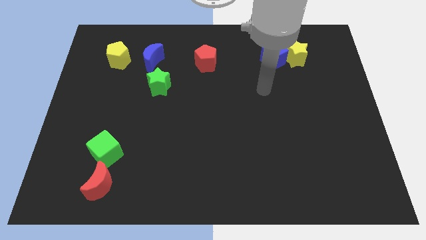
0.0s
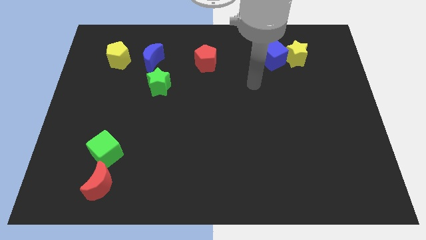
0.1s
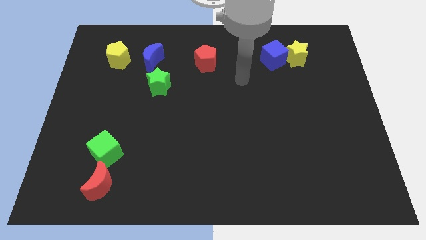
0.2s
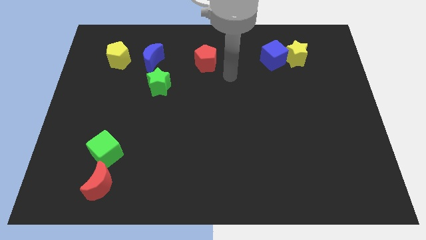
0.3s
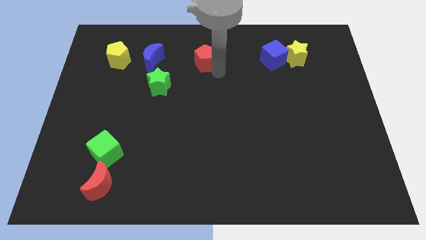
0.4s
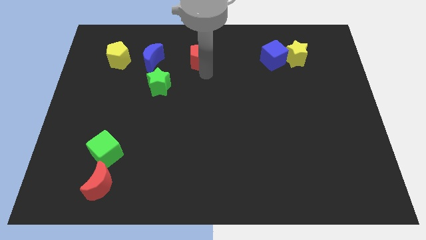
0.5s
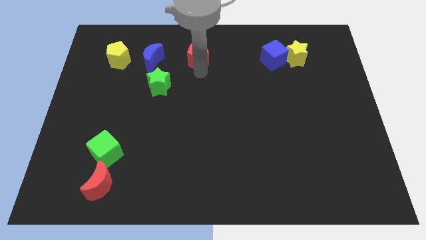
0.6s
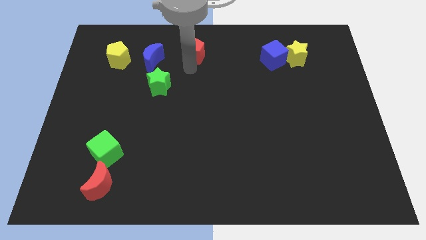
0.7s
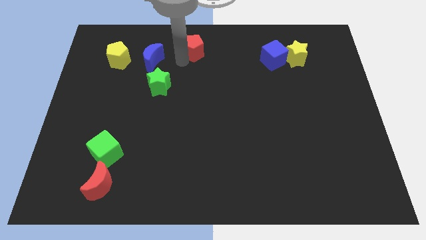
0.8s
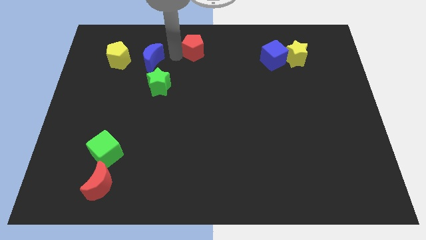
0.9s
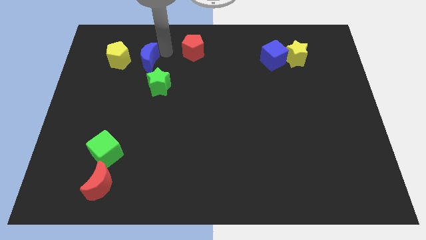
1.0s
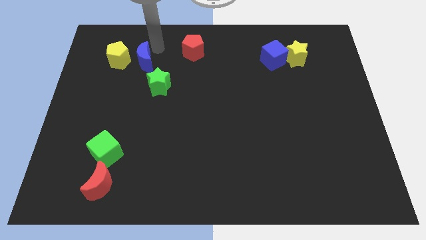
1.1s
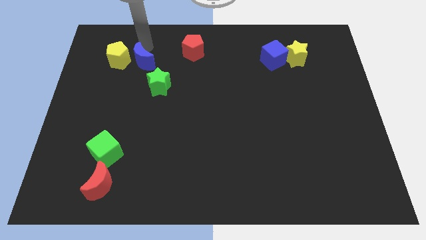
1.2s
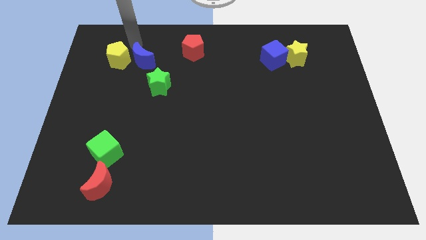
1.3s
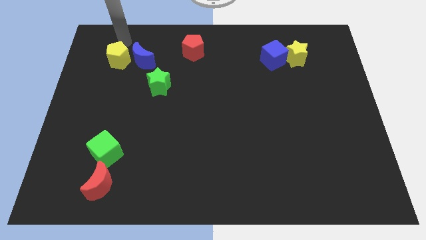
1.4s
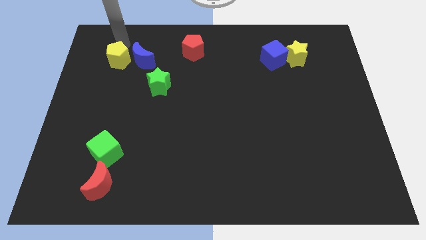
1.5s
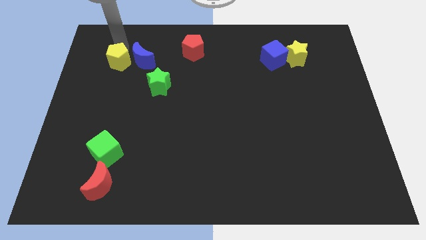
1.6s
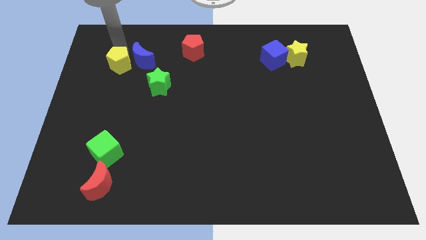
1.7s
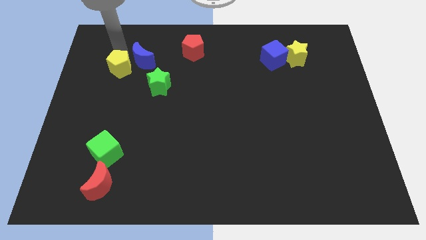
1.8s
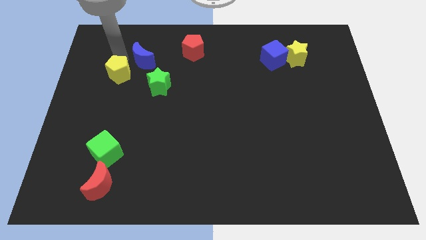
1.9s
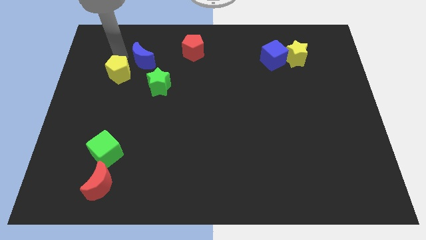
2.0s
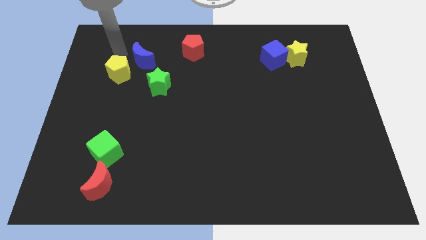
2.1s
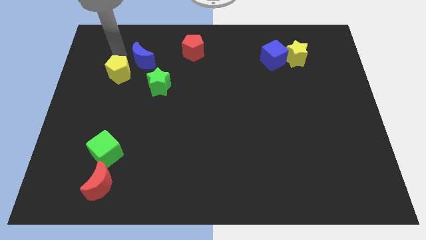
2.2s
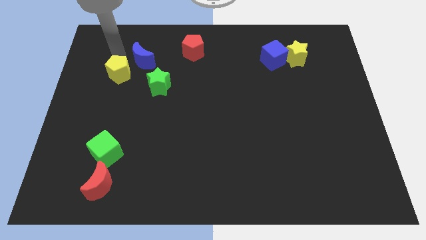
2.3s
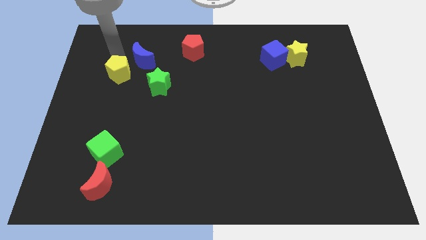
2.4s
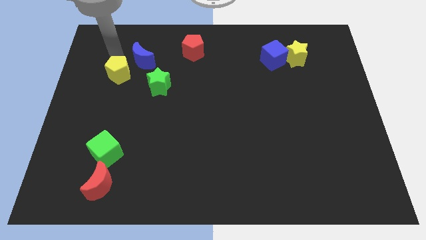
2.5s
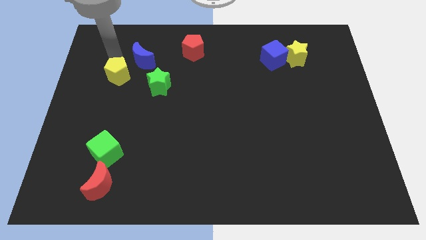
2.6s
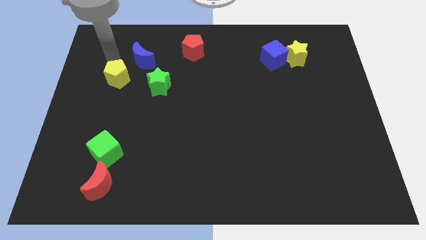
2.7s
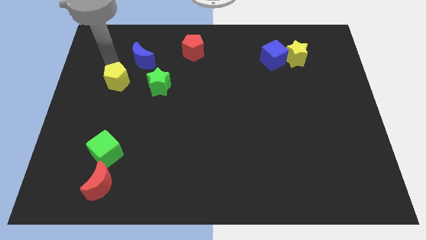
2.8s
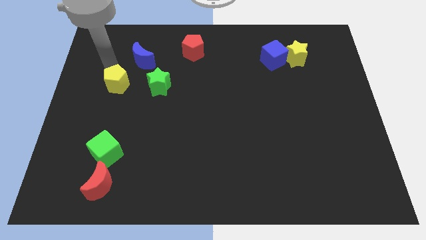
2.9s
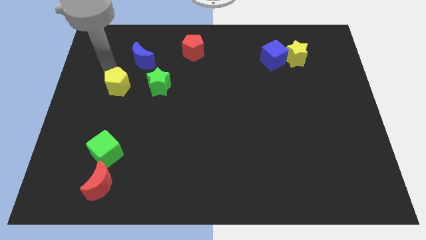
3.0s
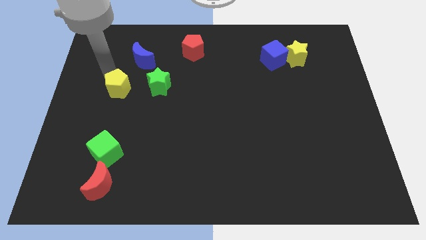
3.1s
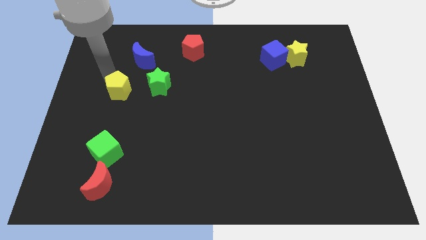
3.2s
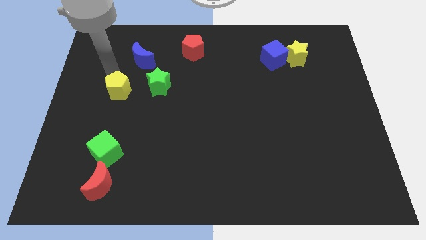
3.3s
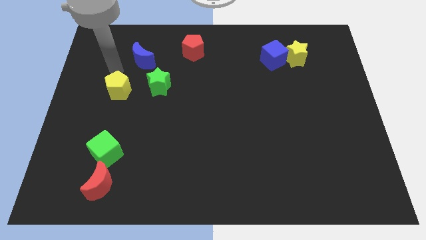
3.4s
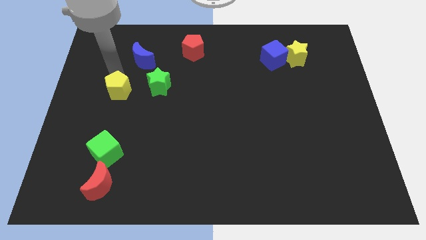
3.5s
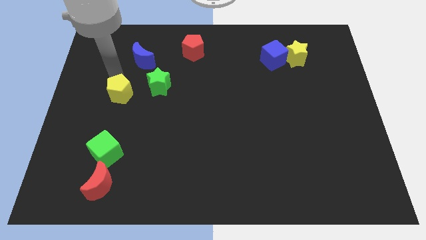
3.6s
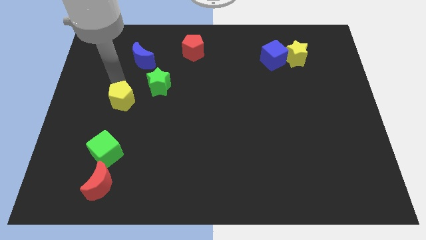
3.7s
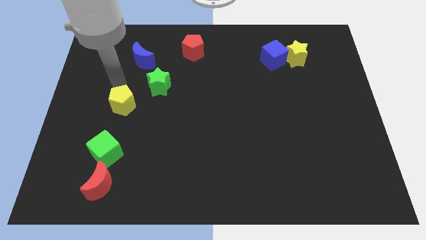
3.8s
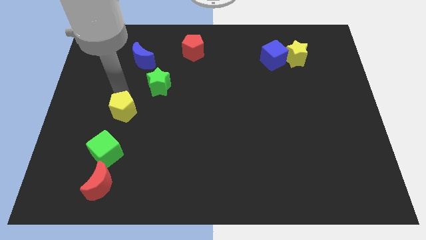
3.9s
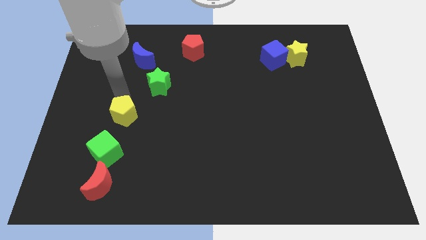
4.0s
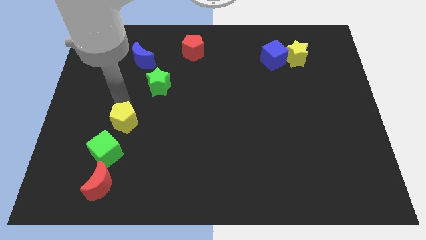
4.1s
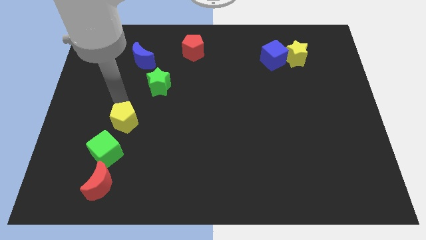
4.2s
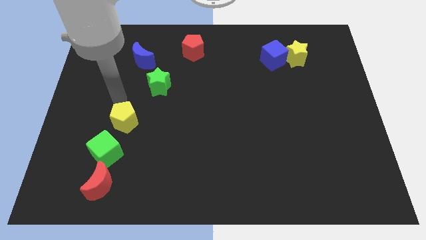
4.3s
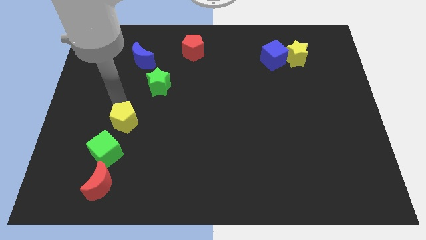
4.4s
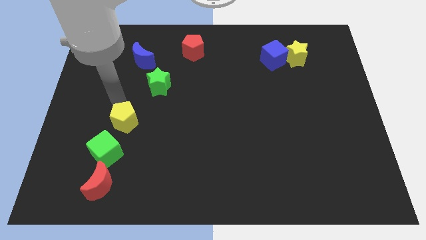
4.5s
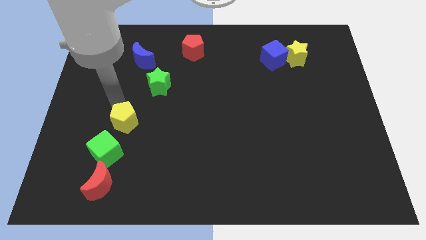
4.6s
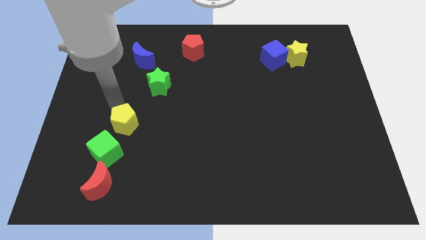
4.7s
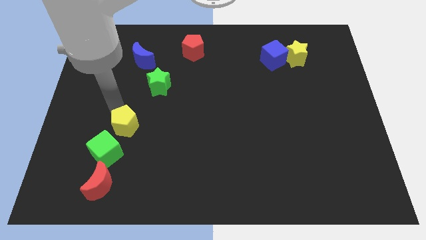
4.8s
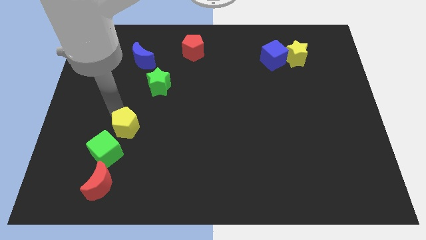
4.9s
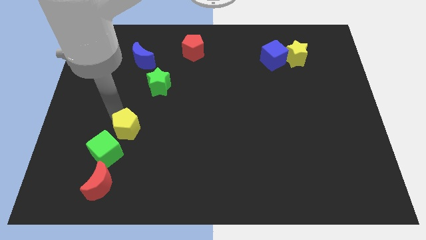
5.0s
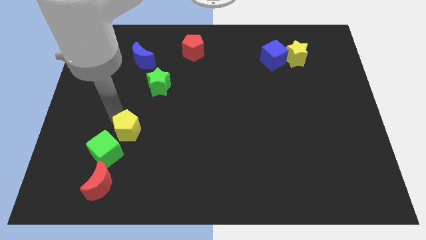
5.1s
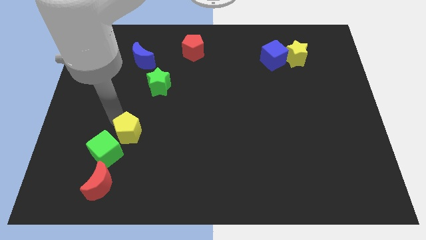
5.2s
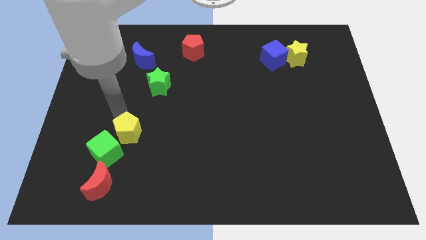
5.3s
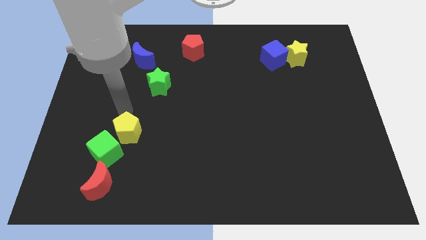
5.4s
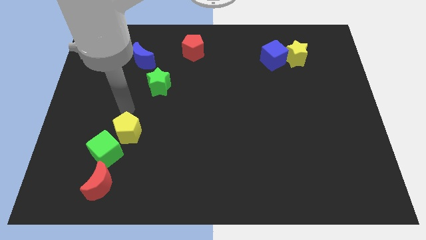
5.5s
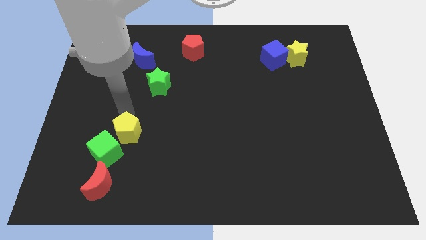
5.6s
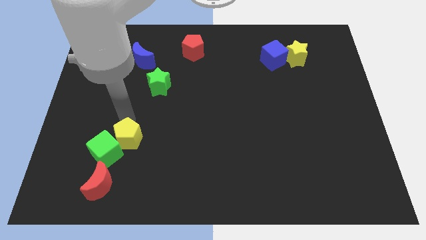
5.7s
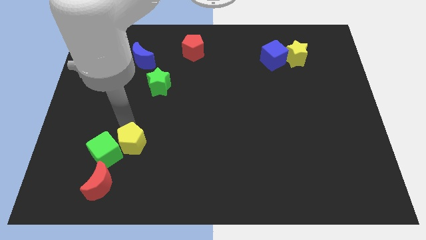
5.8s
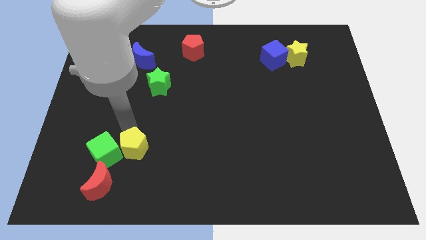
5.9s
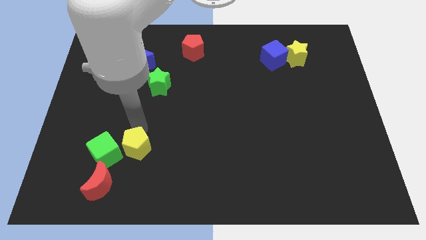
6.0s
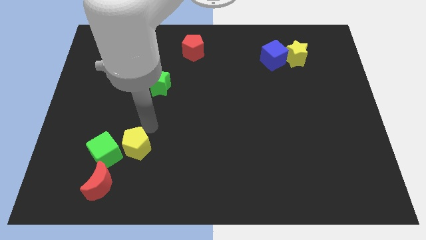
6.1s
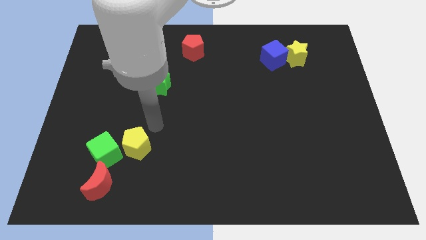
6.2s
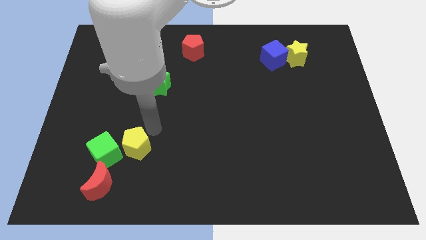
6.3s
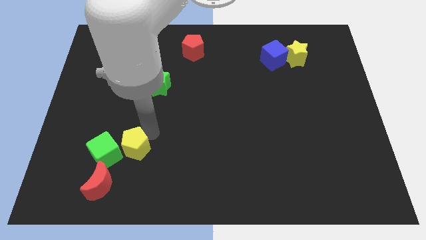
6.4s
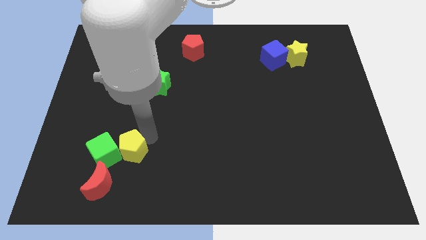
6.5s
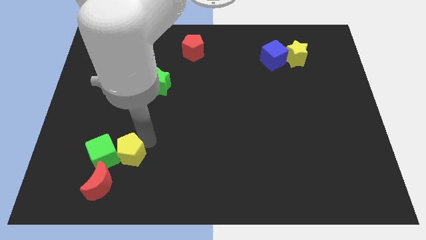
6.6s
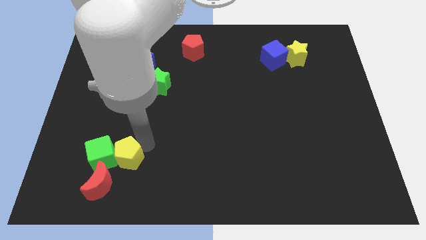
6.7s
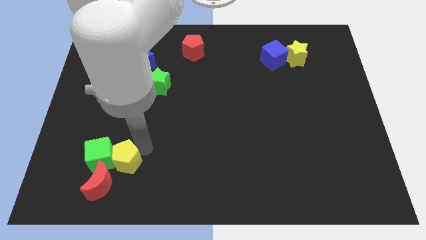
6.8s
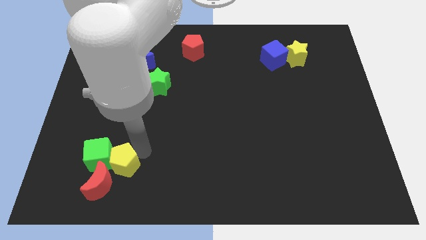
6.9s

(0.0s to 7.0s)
push the yellow pentagon close to the red moon
